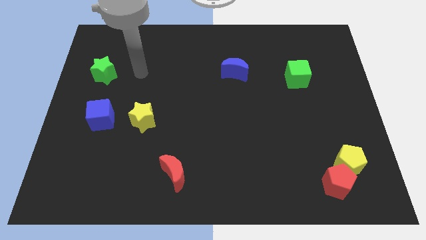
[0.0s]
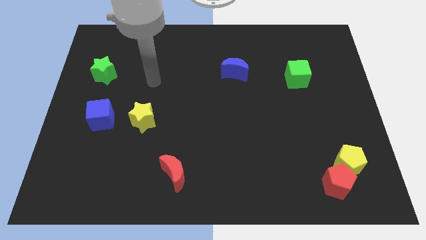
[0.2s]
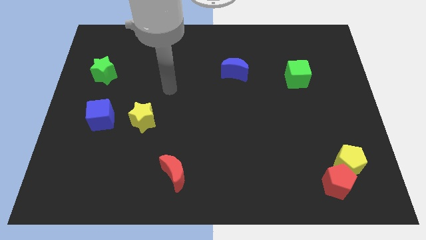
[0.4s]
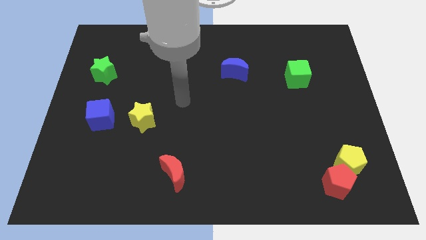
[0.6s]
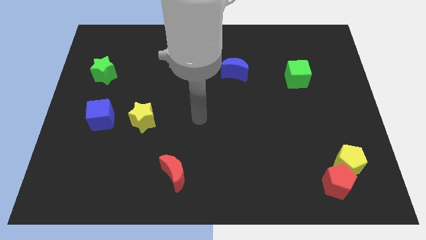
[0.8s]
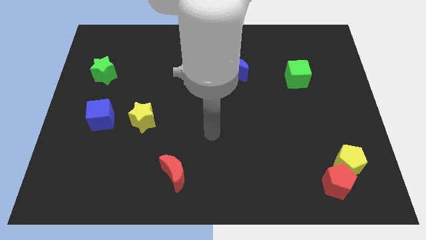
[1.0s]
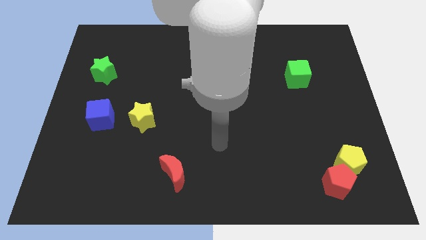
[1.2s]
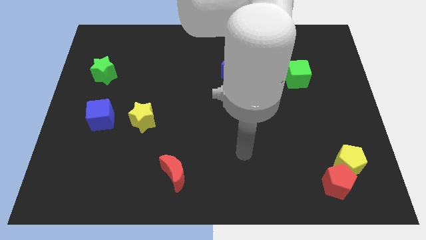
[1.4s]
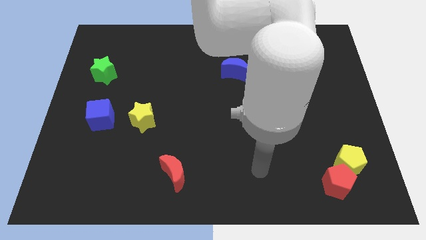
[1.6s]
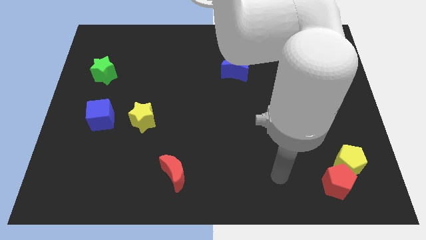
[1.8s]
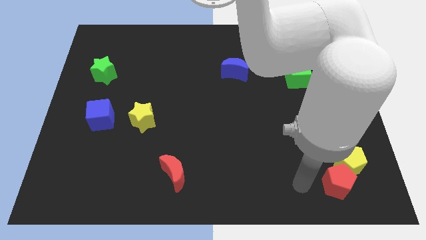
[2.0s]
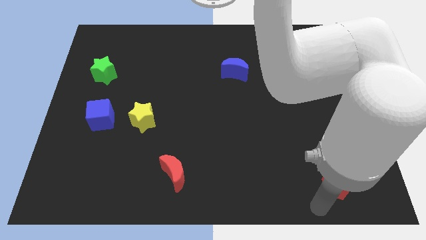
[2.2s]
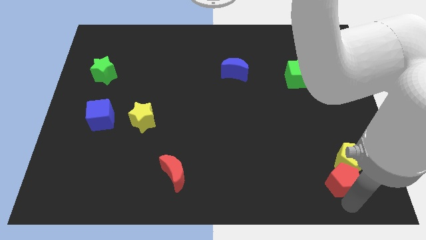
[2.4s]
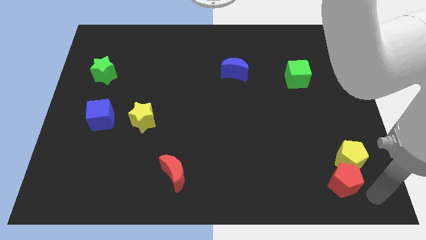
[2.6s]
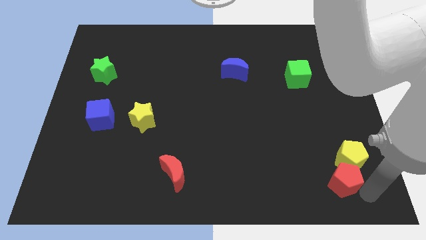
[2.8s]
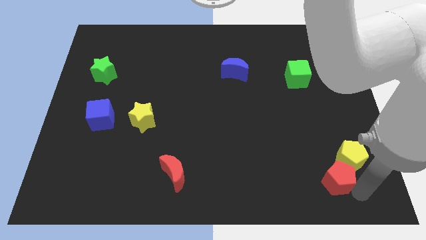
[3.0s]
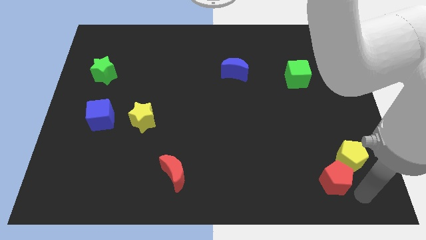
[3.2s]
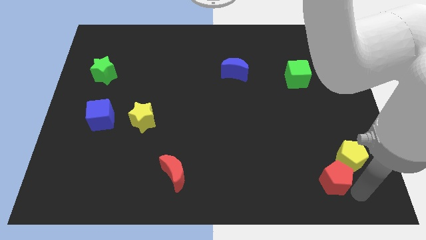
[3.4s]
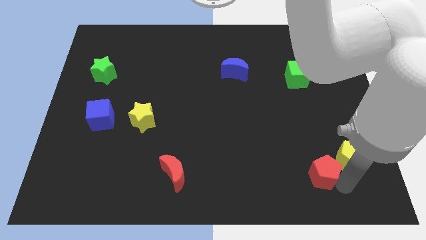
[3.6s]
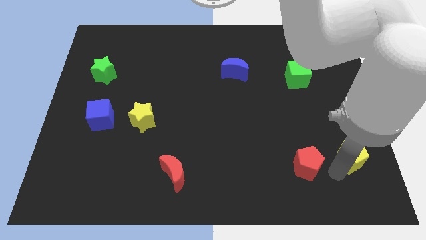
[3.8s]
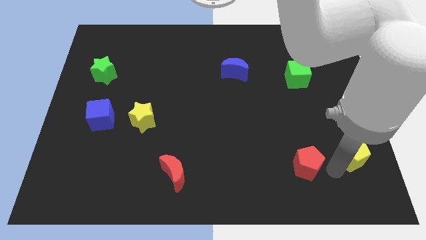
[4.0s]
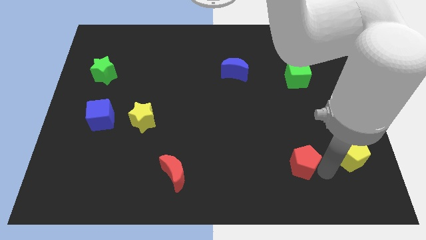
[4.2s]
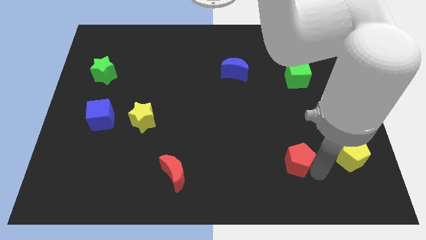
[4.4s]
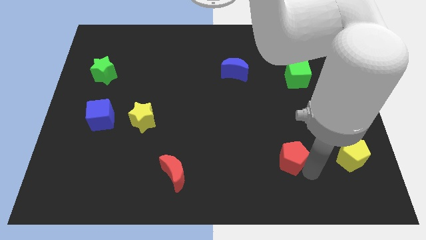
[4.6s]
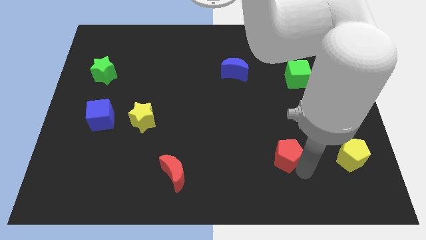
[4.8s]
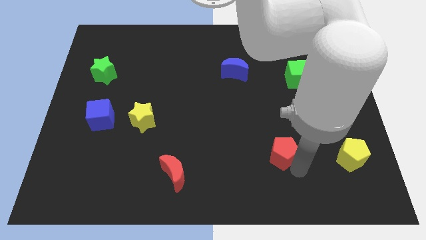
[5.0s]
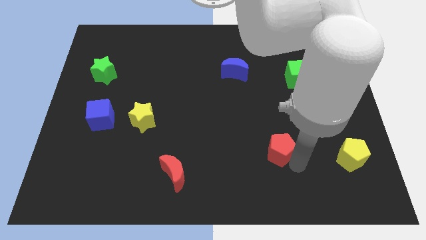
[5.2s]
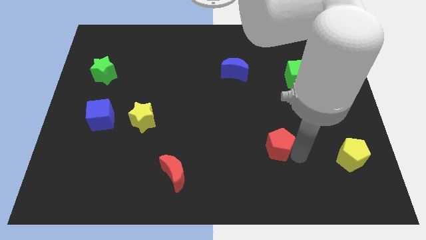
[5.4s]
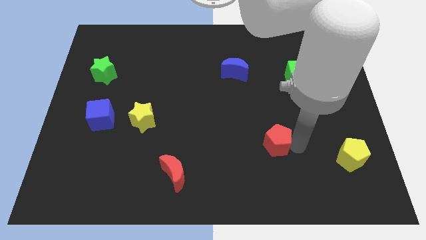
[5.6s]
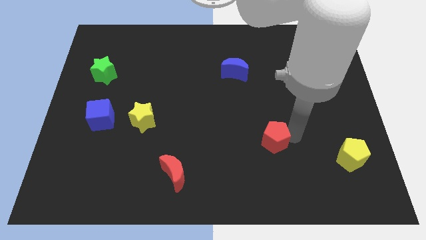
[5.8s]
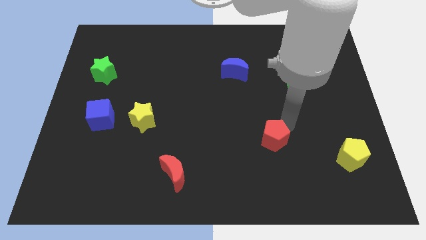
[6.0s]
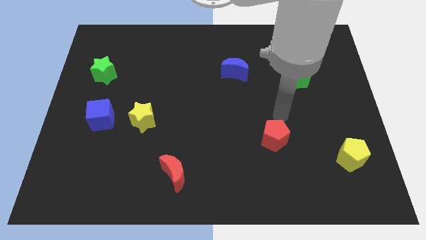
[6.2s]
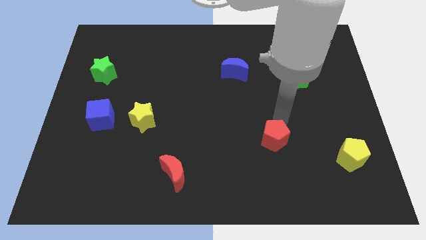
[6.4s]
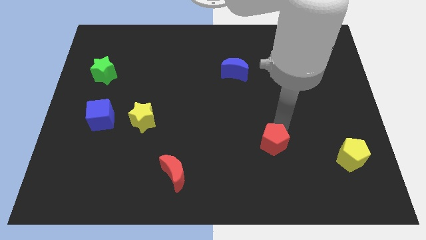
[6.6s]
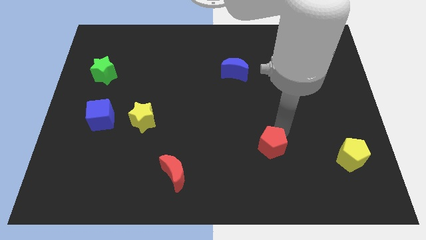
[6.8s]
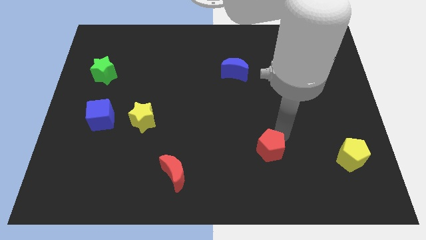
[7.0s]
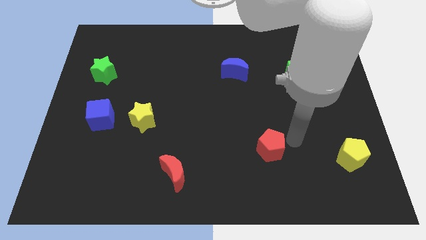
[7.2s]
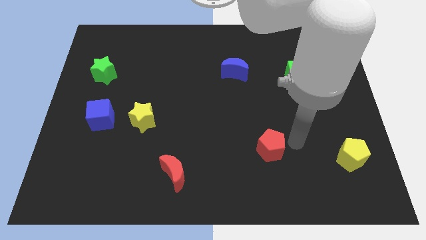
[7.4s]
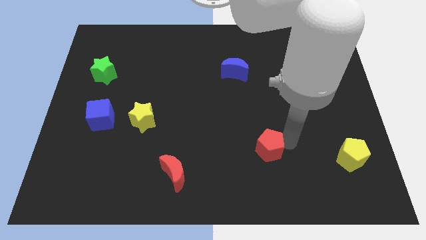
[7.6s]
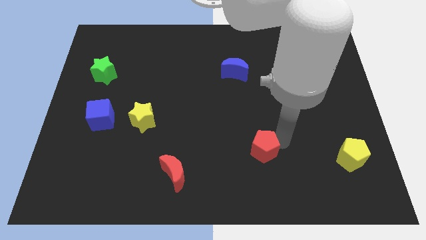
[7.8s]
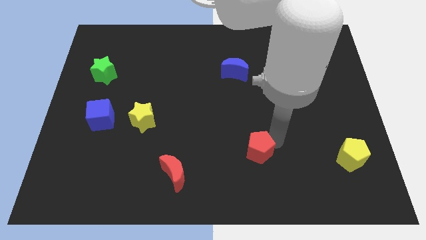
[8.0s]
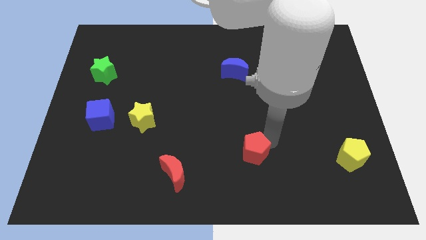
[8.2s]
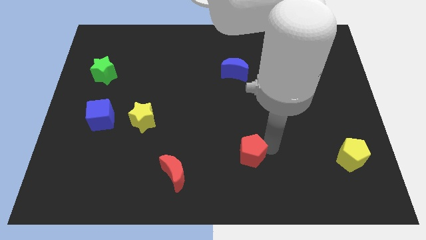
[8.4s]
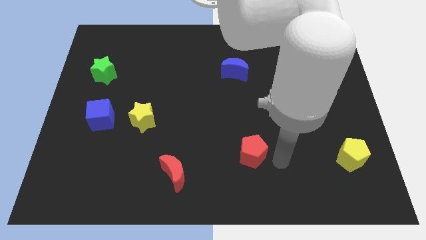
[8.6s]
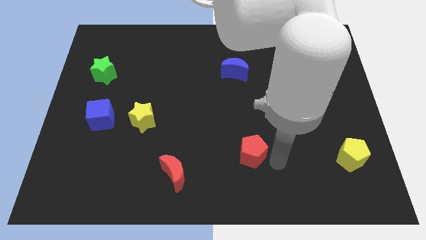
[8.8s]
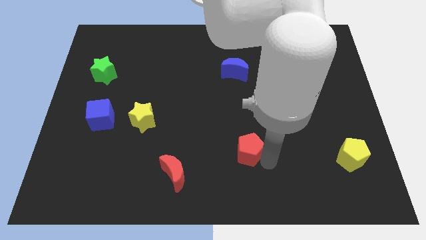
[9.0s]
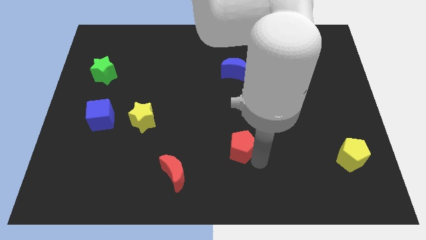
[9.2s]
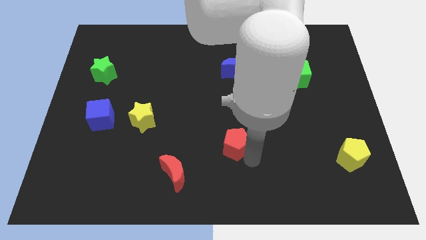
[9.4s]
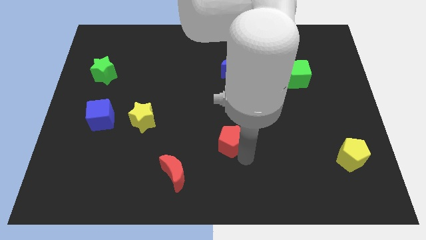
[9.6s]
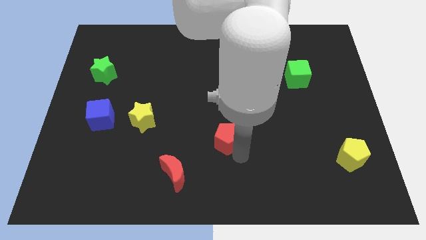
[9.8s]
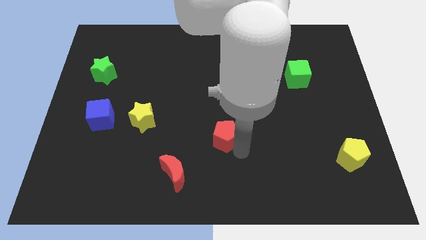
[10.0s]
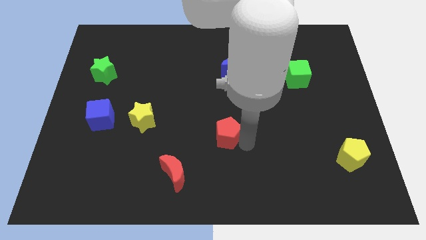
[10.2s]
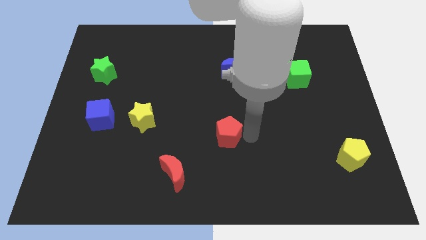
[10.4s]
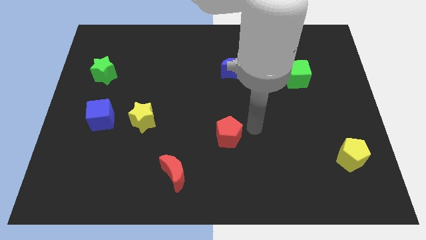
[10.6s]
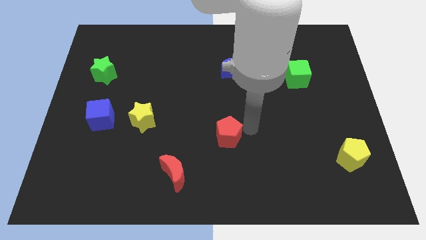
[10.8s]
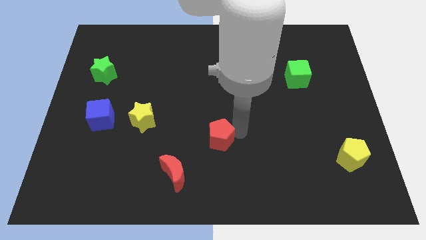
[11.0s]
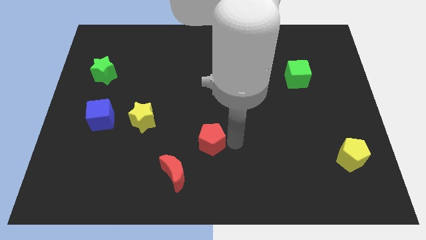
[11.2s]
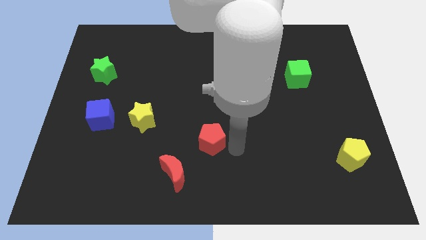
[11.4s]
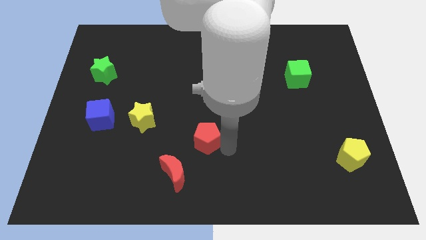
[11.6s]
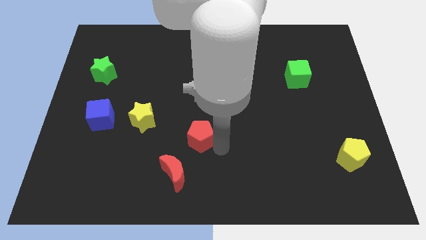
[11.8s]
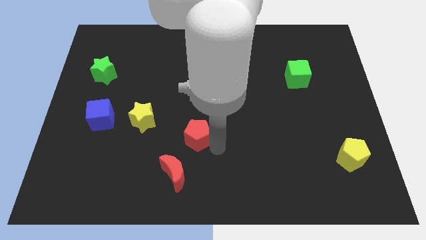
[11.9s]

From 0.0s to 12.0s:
push the red pentagon to the top of the red moon
